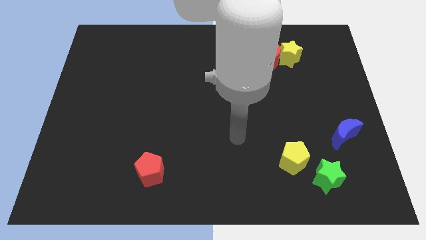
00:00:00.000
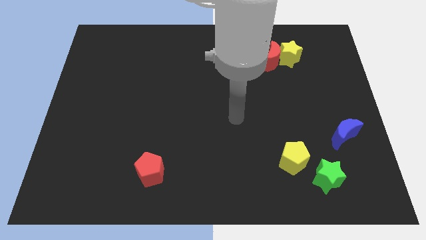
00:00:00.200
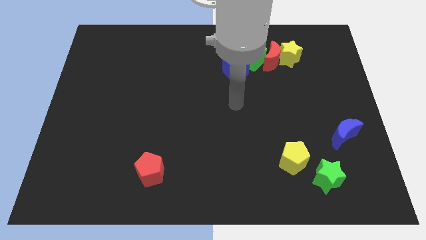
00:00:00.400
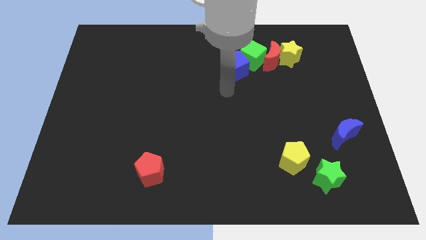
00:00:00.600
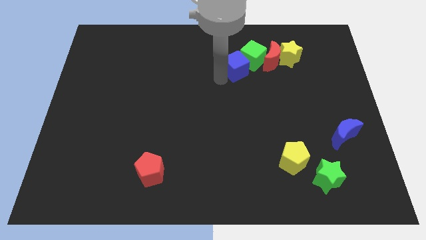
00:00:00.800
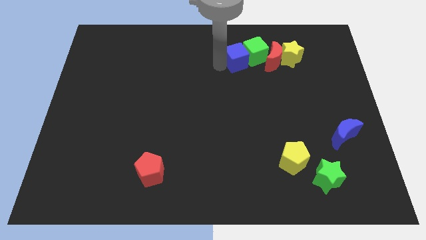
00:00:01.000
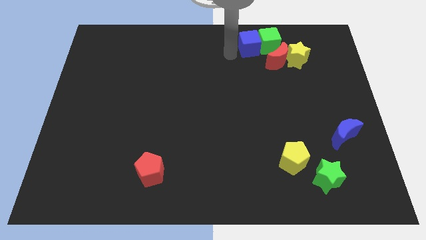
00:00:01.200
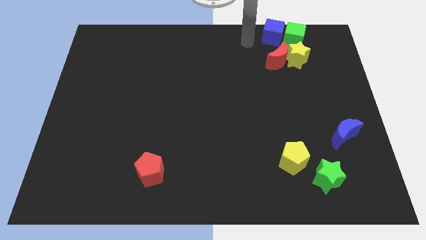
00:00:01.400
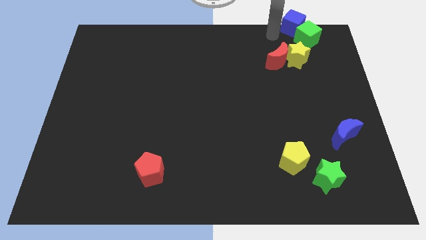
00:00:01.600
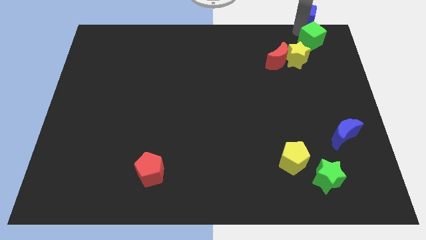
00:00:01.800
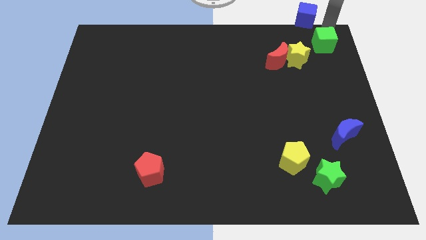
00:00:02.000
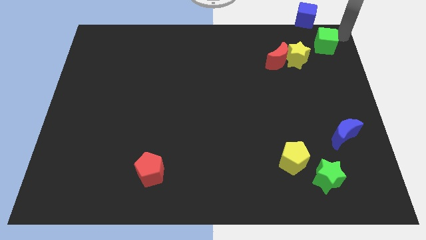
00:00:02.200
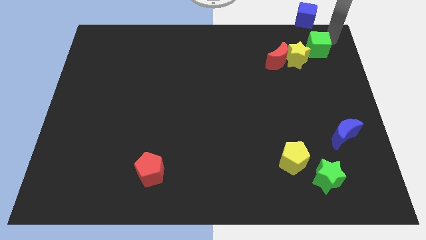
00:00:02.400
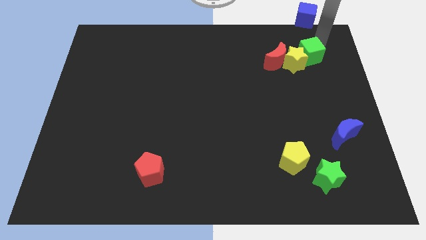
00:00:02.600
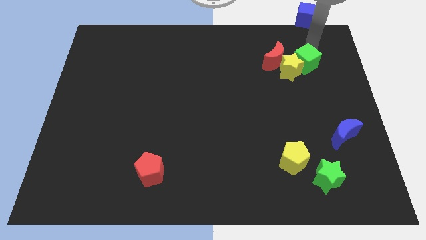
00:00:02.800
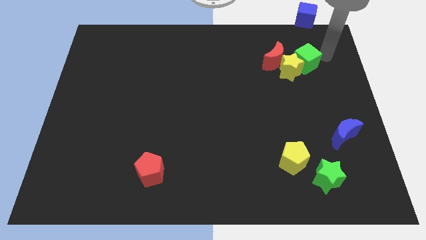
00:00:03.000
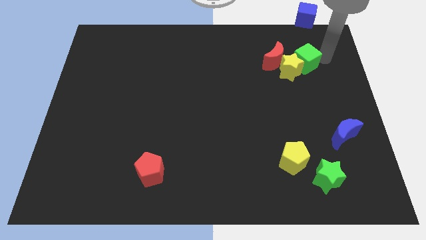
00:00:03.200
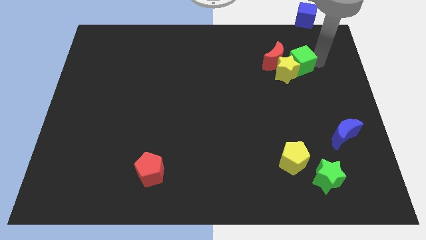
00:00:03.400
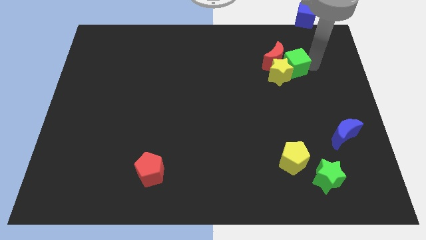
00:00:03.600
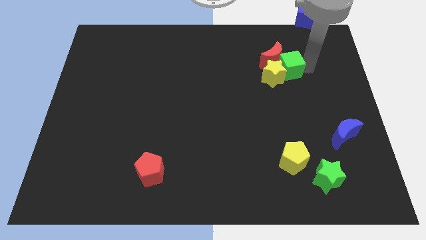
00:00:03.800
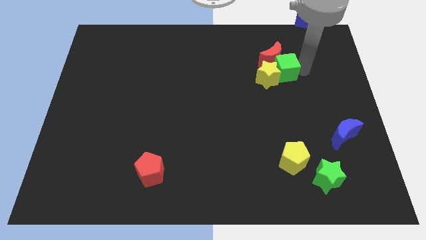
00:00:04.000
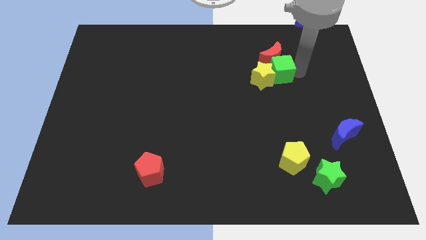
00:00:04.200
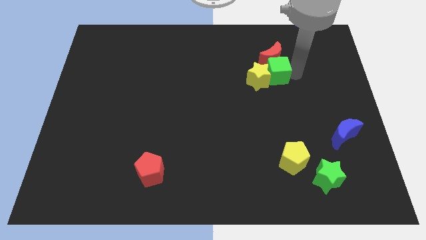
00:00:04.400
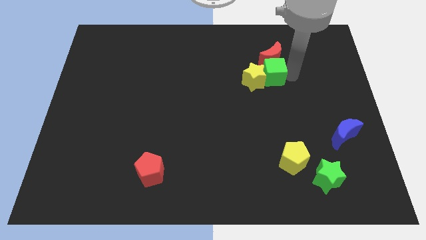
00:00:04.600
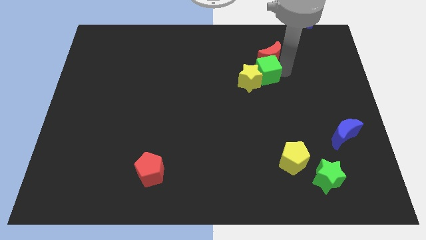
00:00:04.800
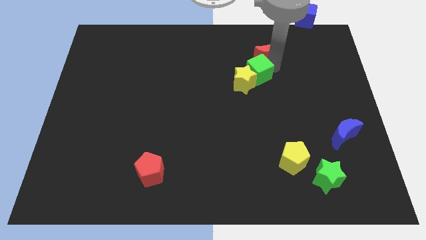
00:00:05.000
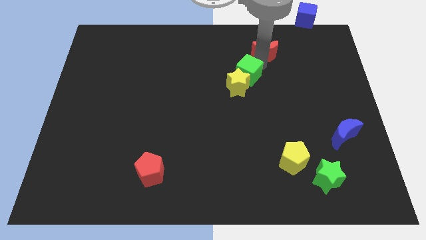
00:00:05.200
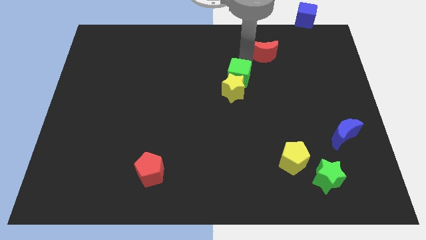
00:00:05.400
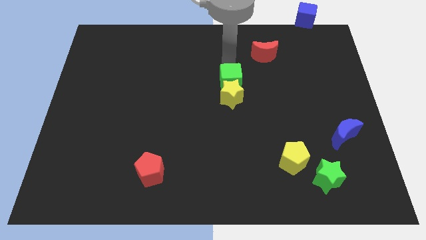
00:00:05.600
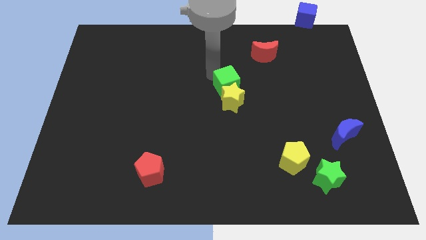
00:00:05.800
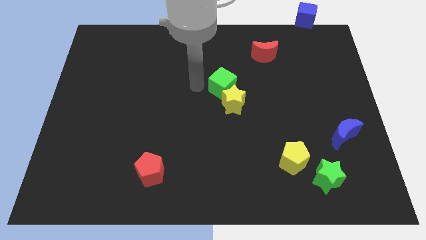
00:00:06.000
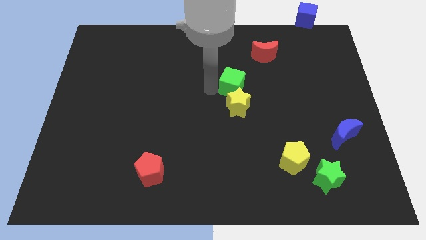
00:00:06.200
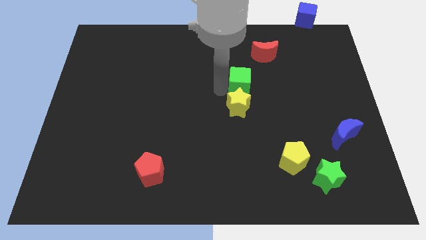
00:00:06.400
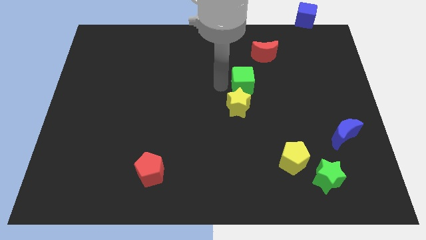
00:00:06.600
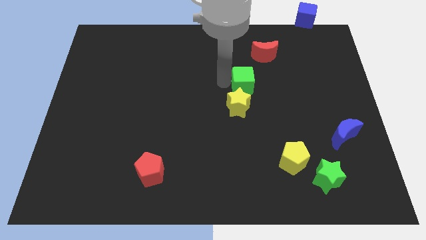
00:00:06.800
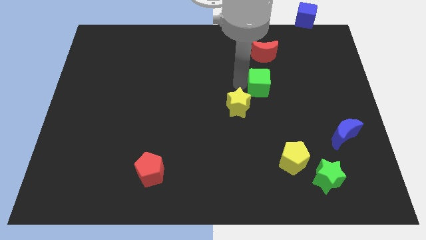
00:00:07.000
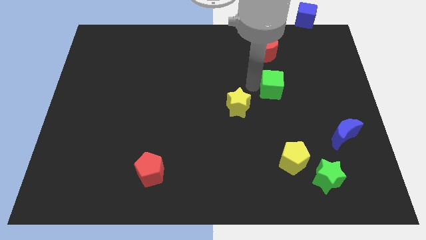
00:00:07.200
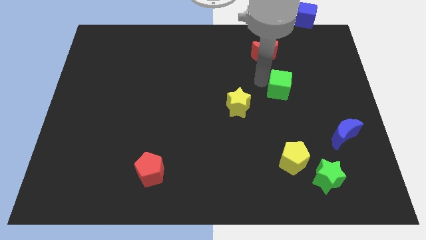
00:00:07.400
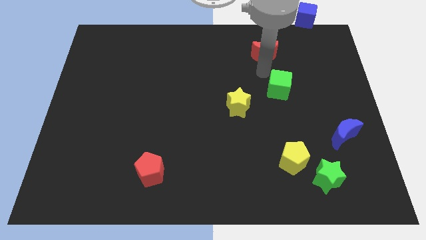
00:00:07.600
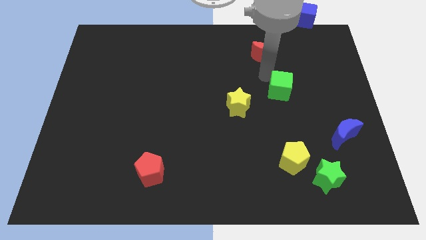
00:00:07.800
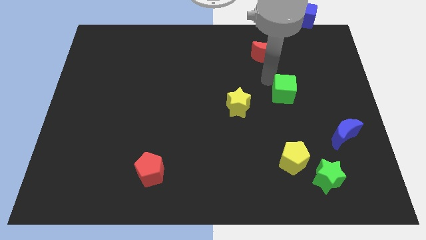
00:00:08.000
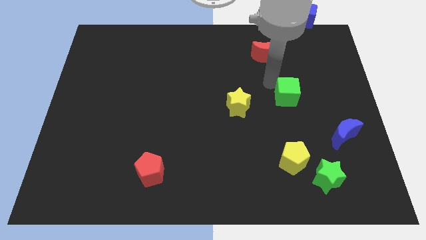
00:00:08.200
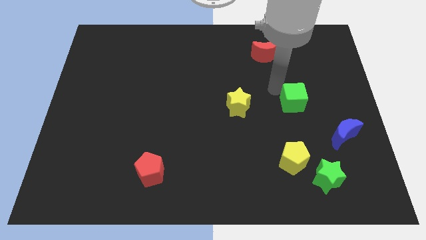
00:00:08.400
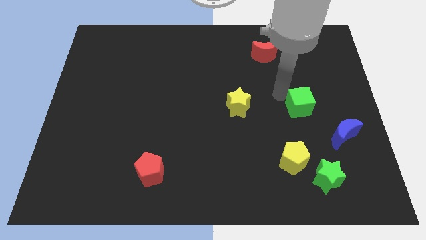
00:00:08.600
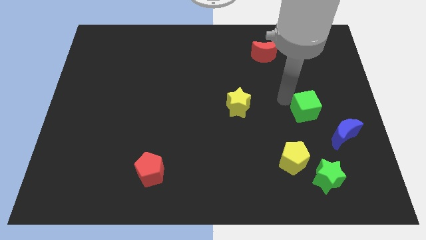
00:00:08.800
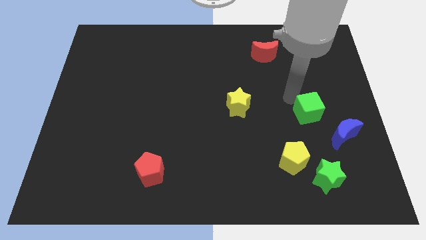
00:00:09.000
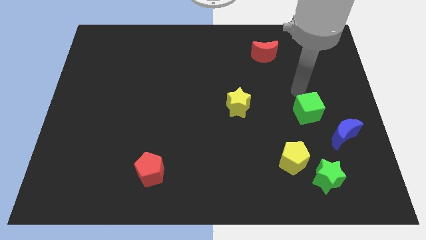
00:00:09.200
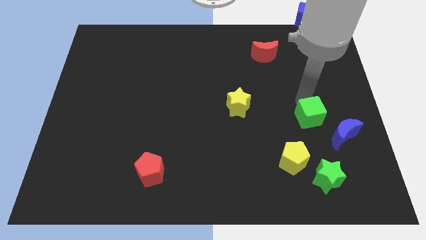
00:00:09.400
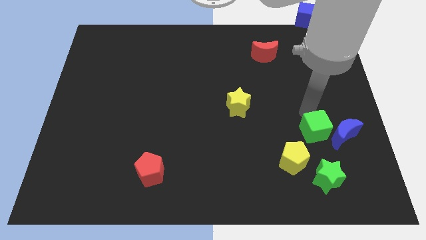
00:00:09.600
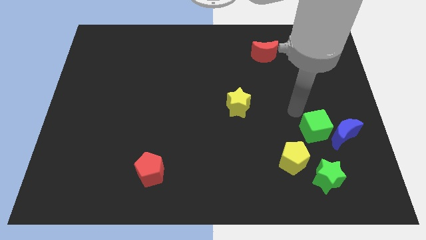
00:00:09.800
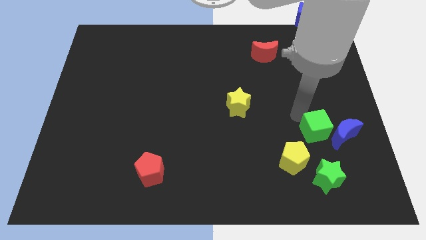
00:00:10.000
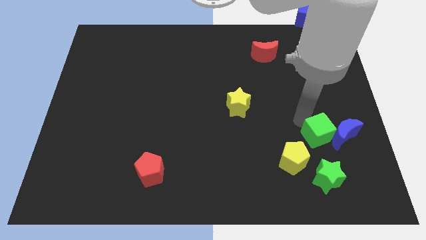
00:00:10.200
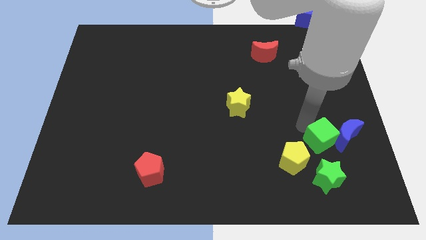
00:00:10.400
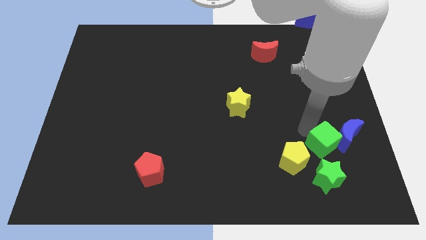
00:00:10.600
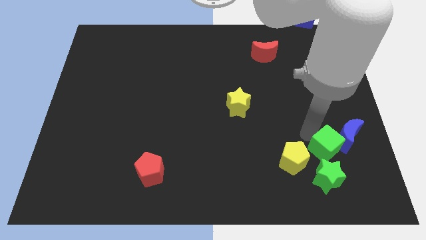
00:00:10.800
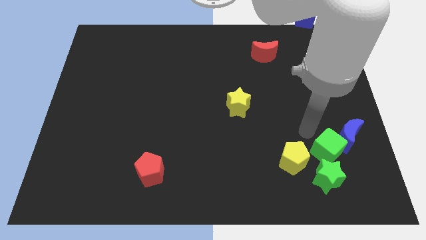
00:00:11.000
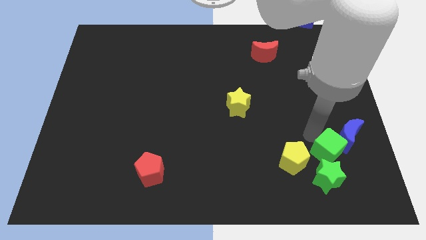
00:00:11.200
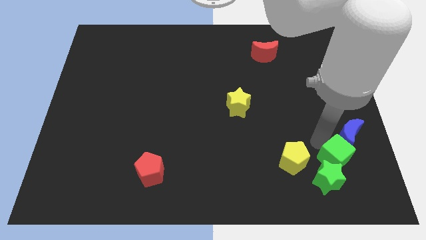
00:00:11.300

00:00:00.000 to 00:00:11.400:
put the green cube to the bottom of the blue moon

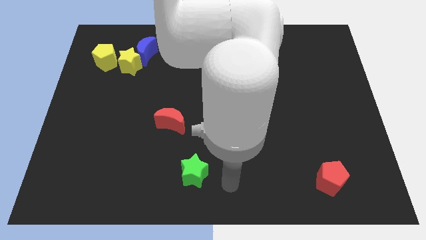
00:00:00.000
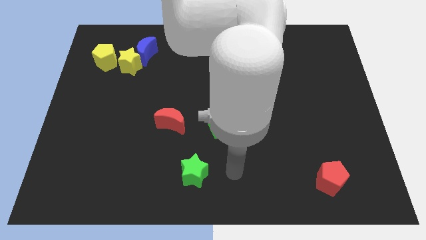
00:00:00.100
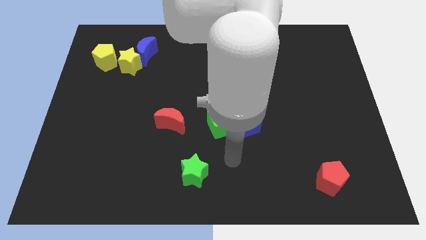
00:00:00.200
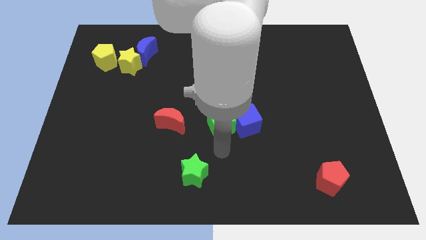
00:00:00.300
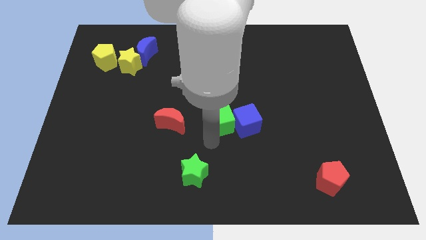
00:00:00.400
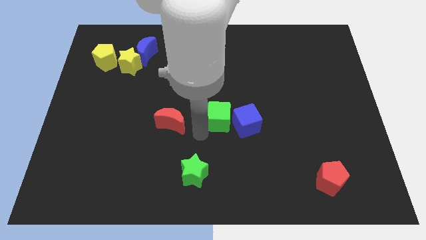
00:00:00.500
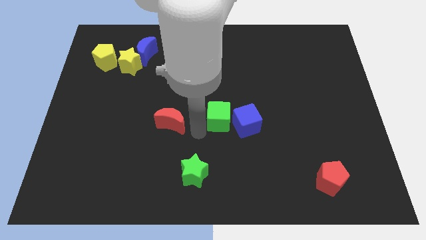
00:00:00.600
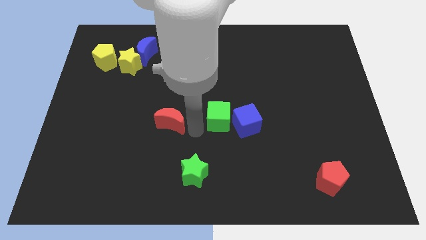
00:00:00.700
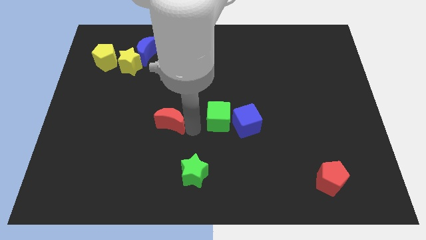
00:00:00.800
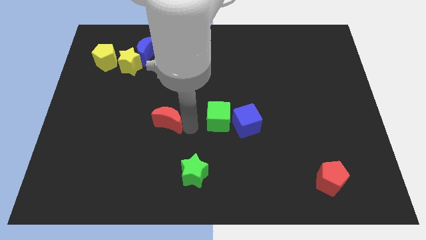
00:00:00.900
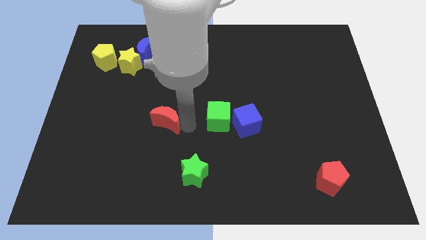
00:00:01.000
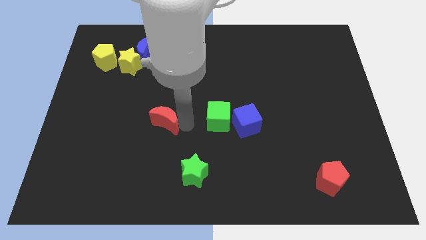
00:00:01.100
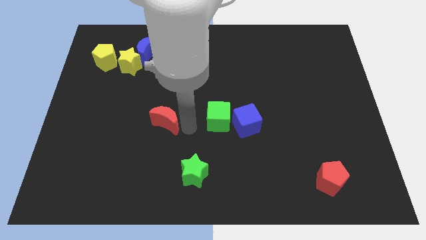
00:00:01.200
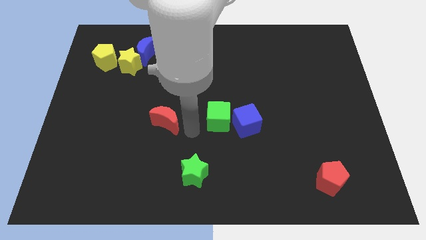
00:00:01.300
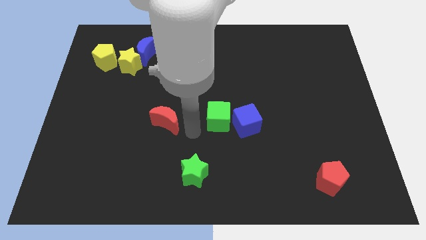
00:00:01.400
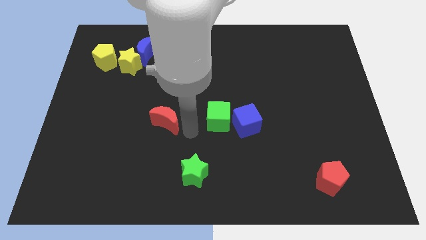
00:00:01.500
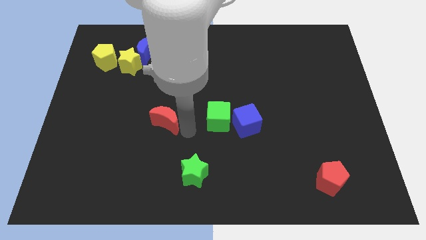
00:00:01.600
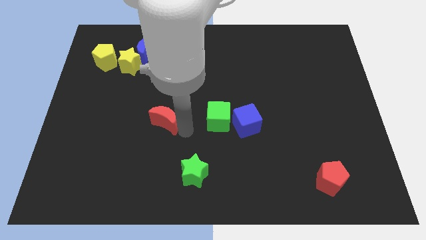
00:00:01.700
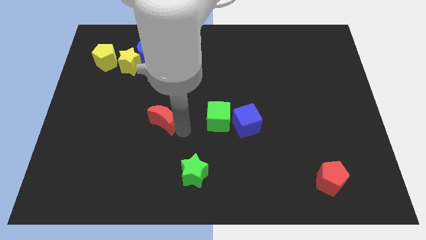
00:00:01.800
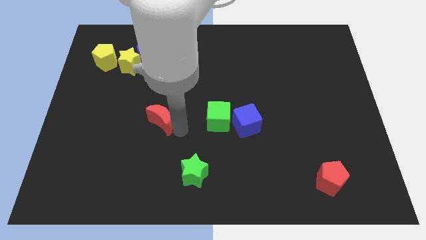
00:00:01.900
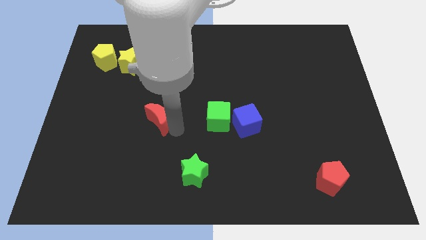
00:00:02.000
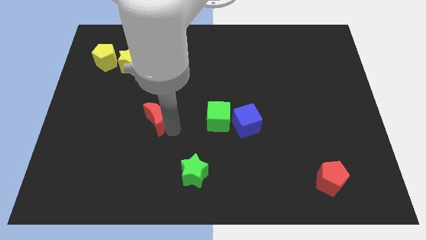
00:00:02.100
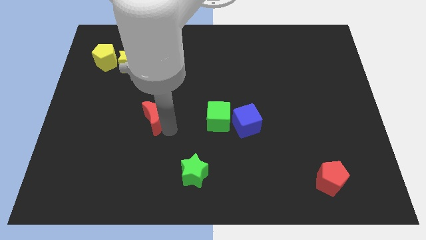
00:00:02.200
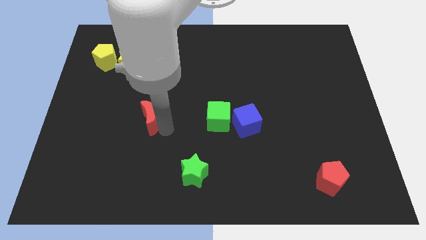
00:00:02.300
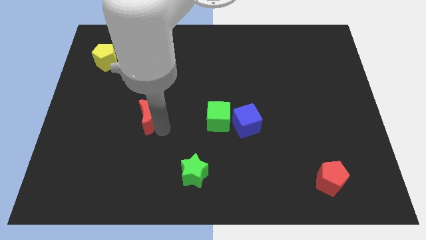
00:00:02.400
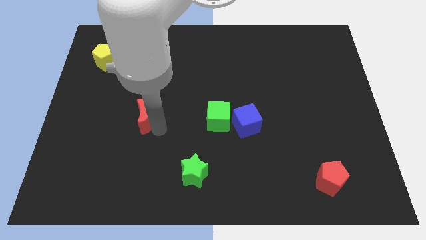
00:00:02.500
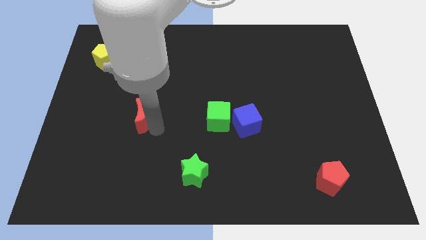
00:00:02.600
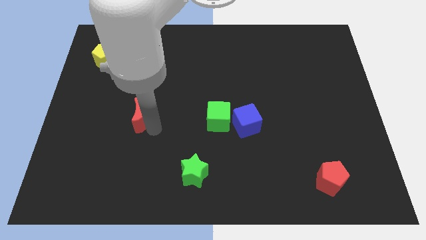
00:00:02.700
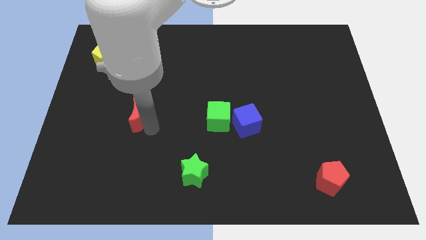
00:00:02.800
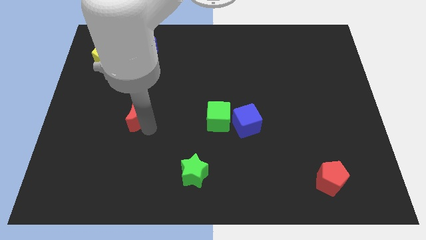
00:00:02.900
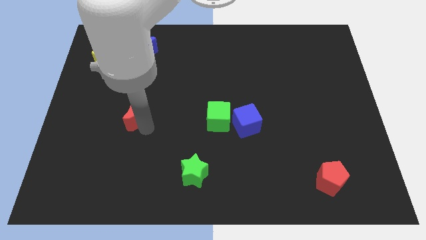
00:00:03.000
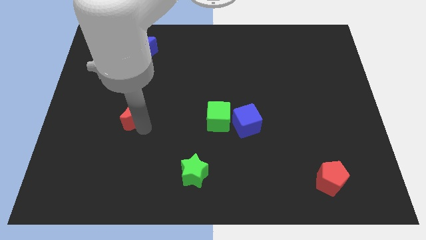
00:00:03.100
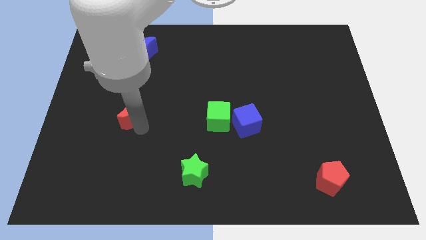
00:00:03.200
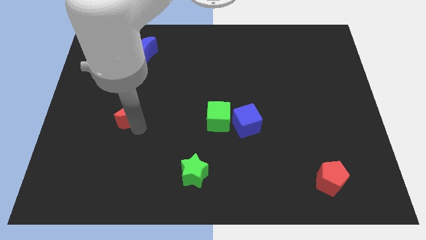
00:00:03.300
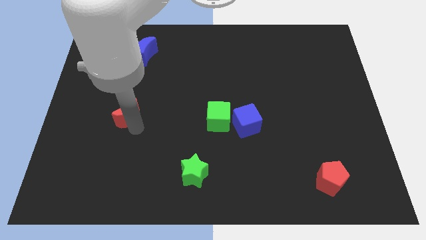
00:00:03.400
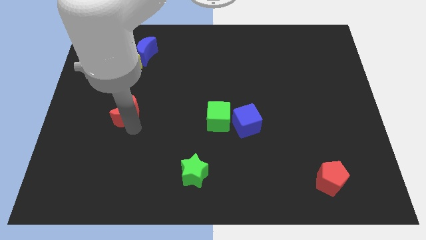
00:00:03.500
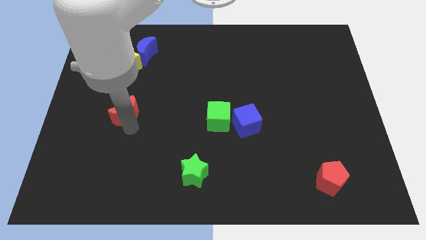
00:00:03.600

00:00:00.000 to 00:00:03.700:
move the red moon to the bottom of the yellow star
